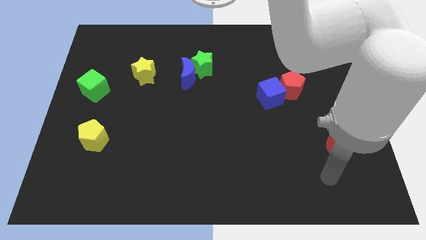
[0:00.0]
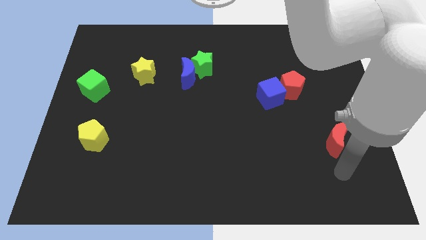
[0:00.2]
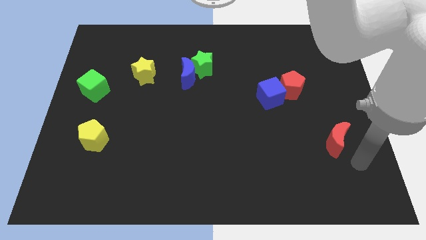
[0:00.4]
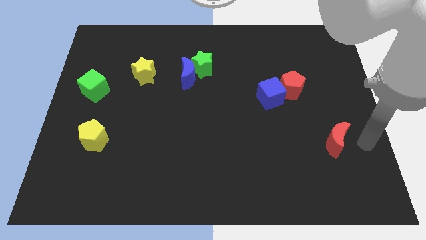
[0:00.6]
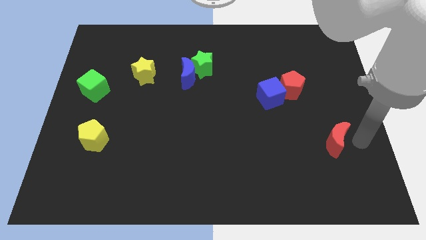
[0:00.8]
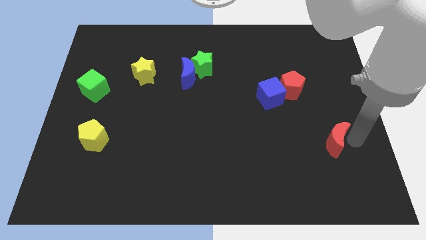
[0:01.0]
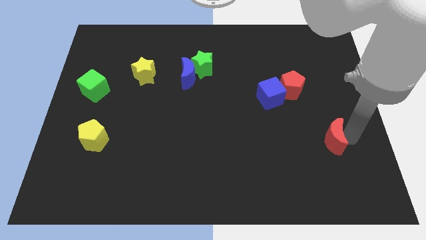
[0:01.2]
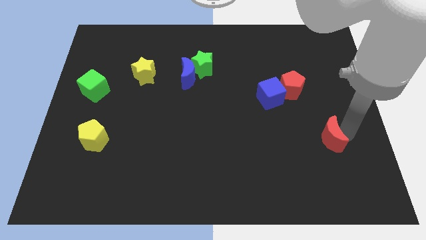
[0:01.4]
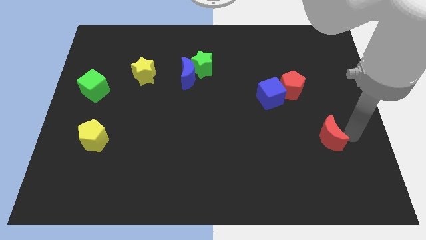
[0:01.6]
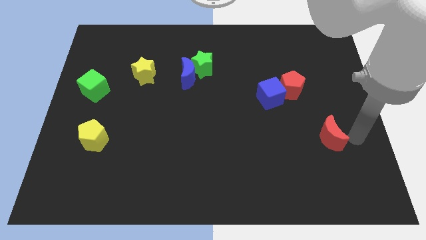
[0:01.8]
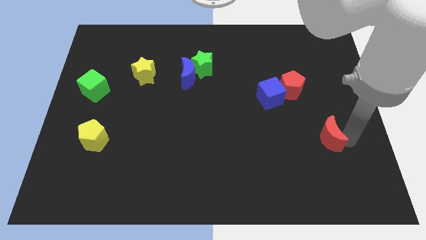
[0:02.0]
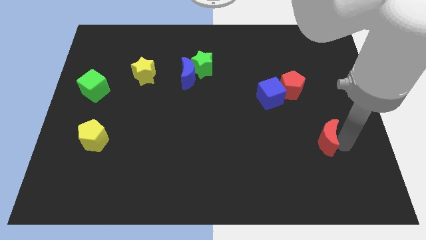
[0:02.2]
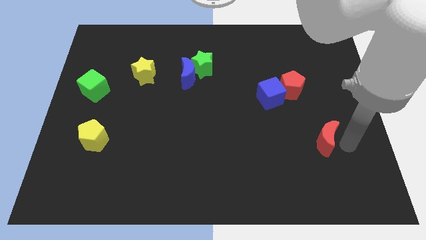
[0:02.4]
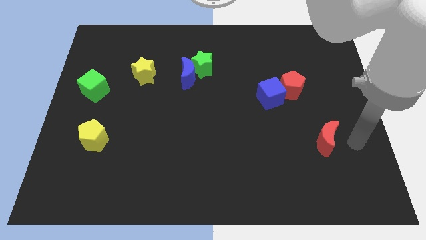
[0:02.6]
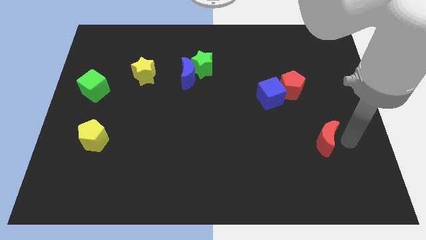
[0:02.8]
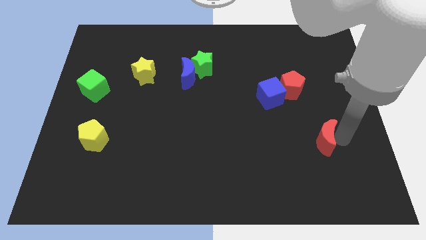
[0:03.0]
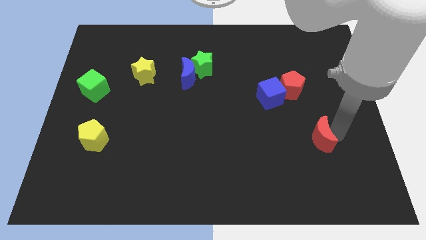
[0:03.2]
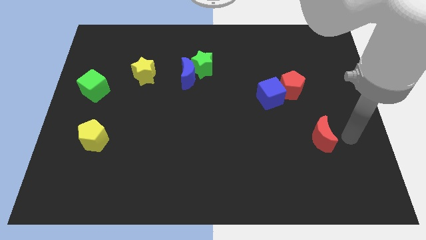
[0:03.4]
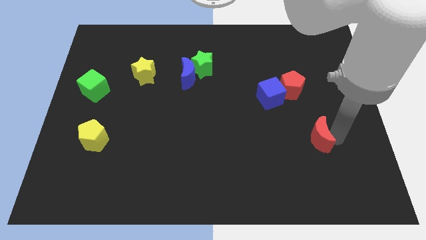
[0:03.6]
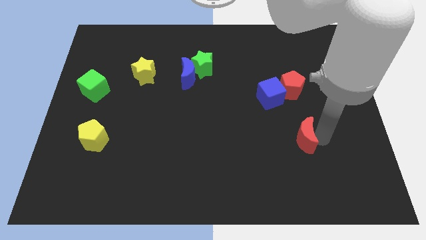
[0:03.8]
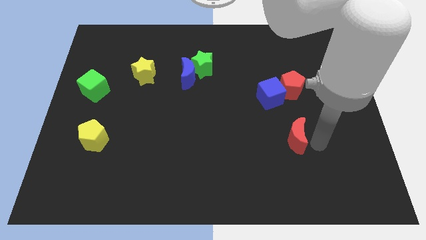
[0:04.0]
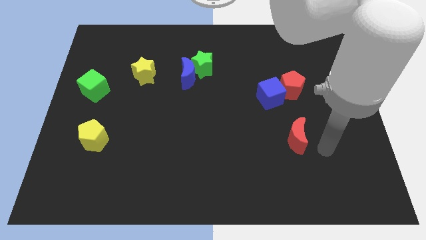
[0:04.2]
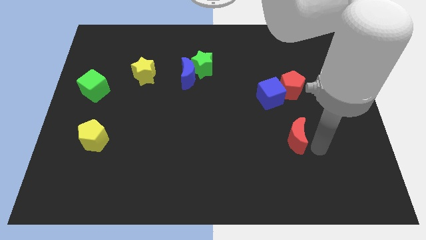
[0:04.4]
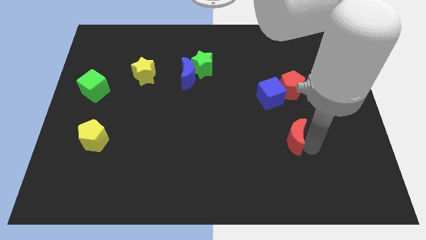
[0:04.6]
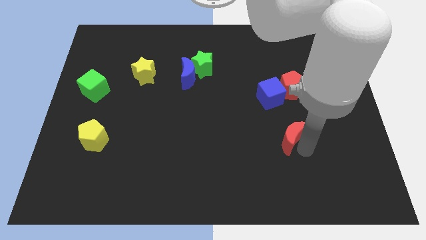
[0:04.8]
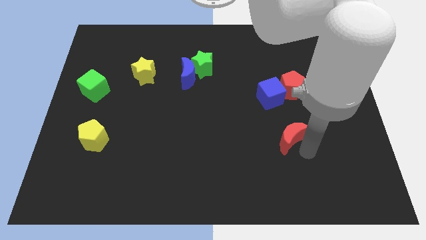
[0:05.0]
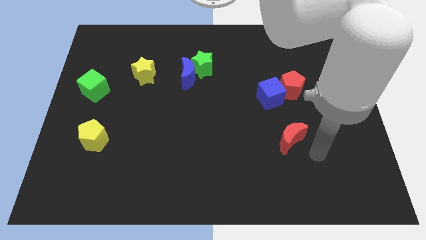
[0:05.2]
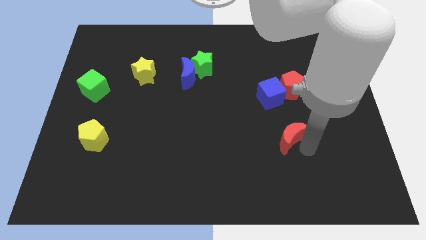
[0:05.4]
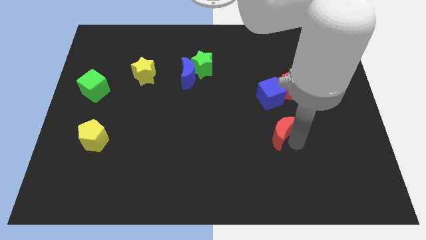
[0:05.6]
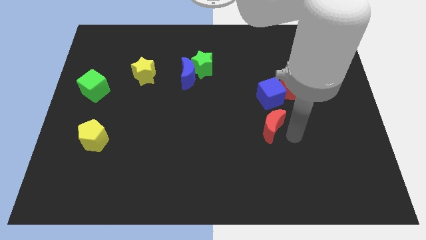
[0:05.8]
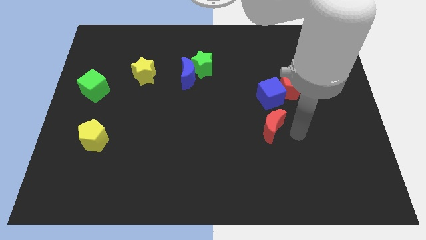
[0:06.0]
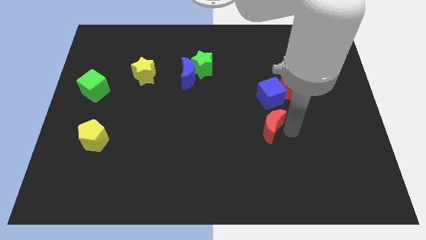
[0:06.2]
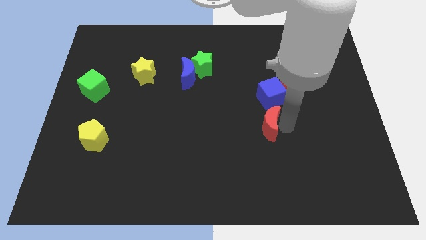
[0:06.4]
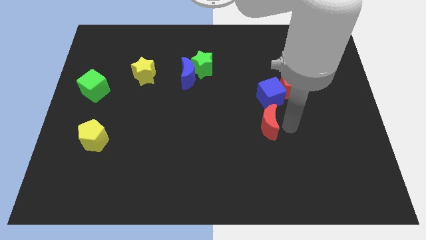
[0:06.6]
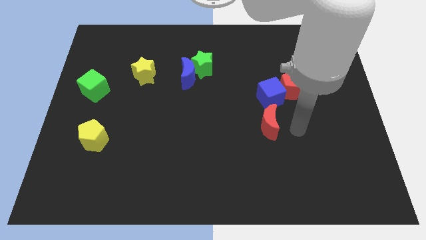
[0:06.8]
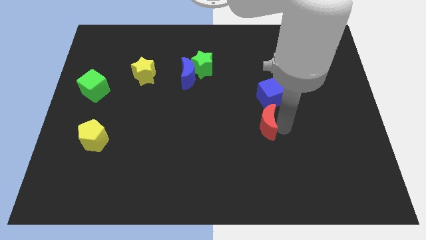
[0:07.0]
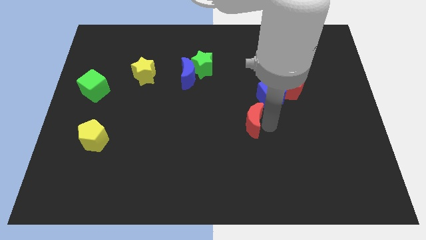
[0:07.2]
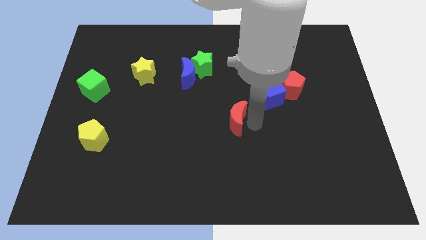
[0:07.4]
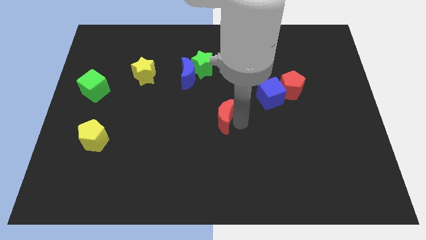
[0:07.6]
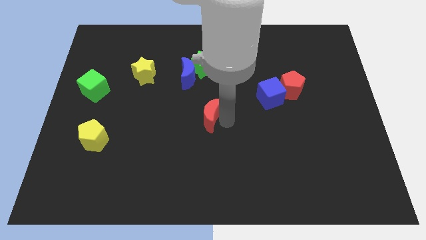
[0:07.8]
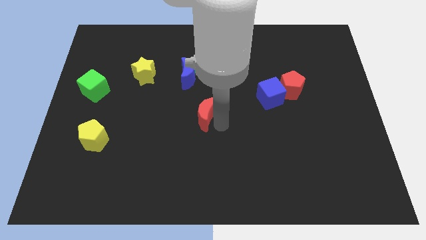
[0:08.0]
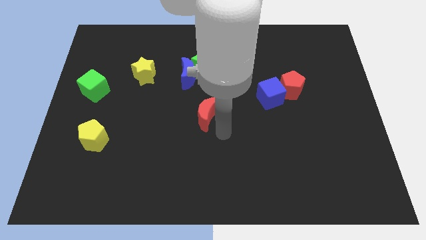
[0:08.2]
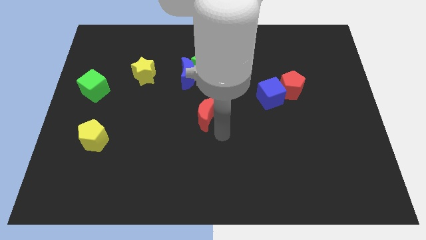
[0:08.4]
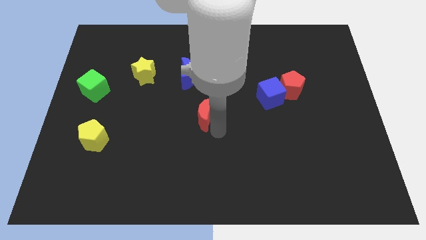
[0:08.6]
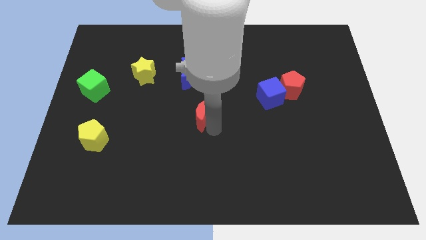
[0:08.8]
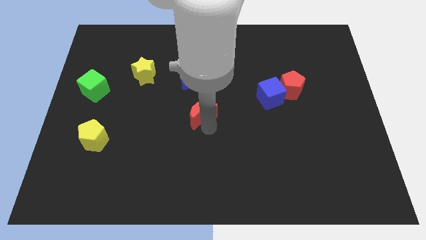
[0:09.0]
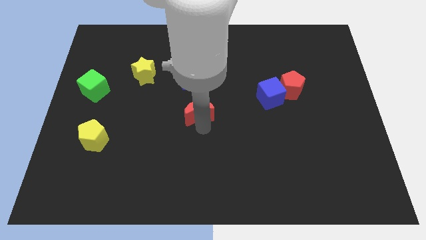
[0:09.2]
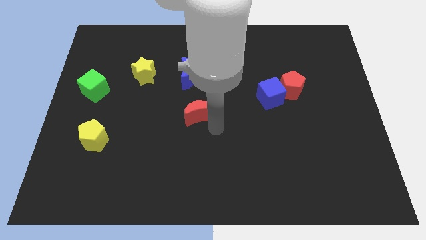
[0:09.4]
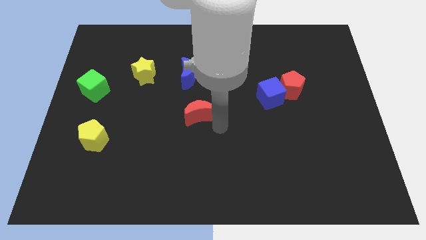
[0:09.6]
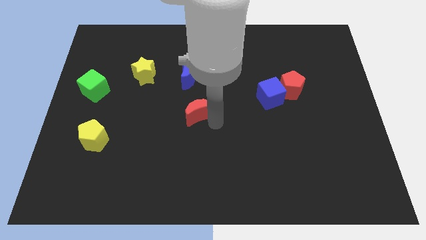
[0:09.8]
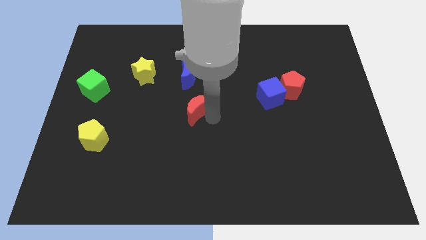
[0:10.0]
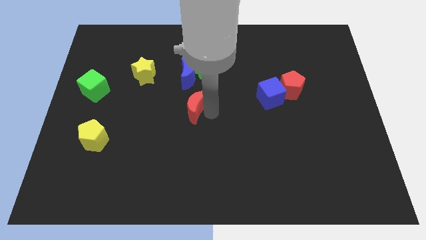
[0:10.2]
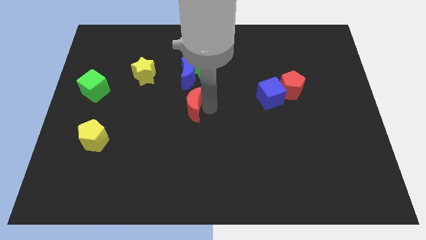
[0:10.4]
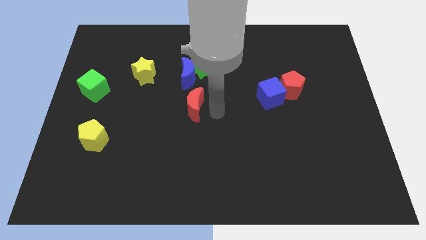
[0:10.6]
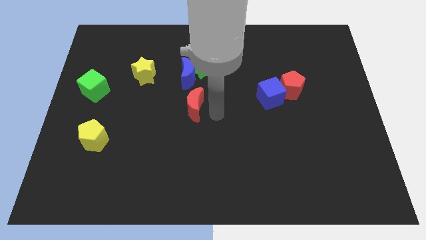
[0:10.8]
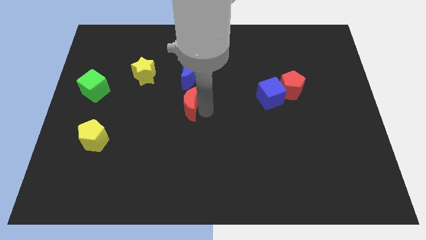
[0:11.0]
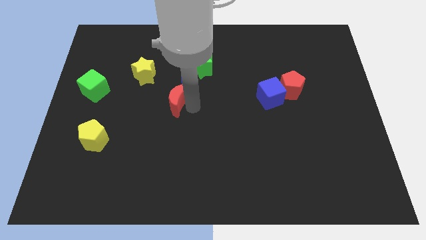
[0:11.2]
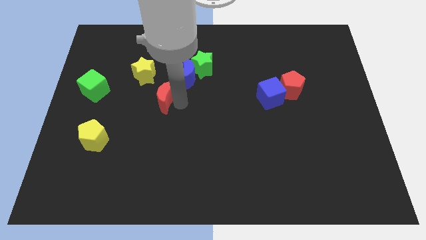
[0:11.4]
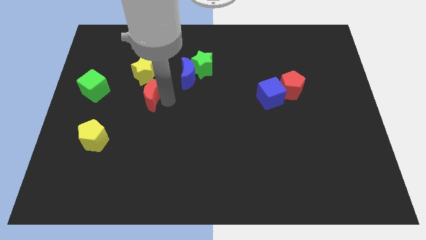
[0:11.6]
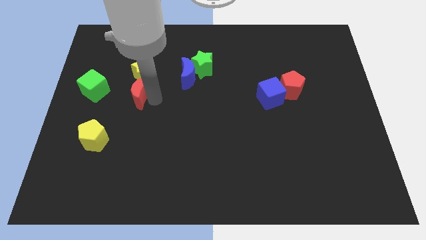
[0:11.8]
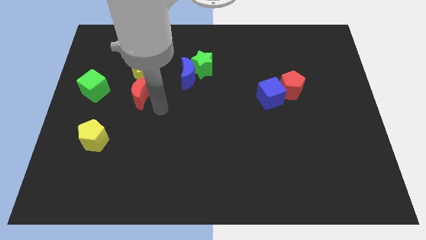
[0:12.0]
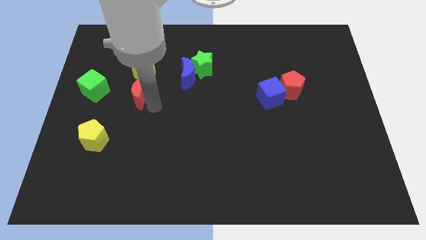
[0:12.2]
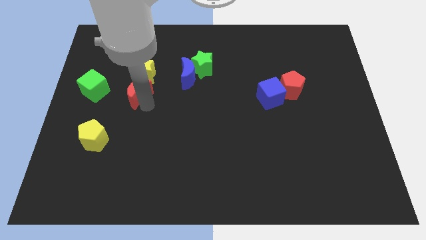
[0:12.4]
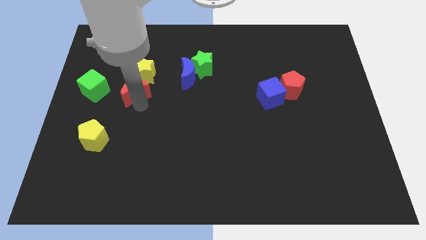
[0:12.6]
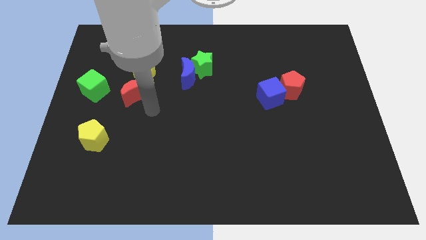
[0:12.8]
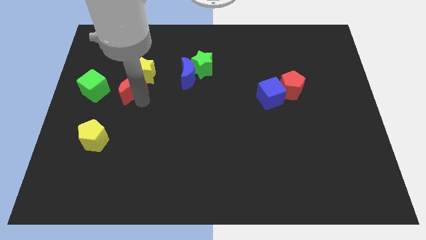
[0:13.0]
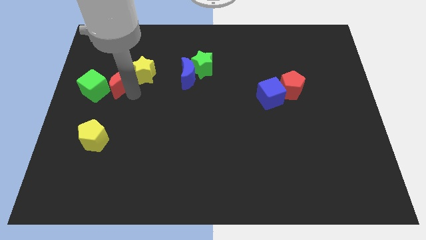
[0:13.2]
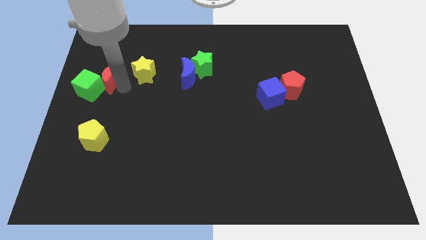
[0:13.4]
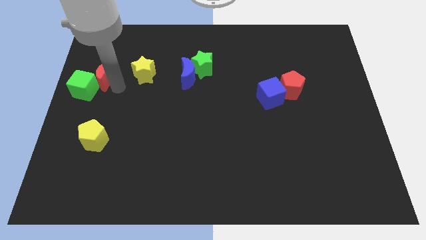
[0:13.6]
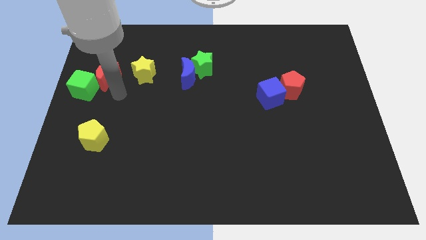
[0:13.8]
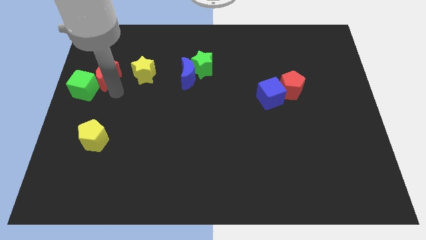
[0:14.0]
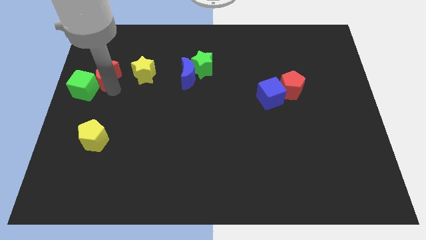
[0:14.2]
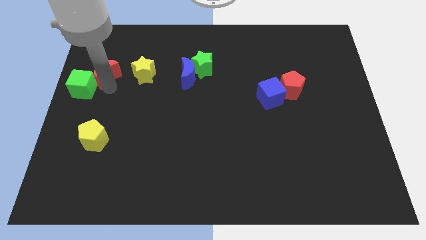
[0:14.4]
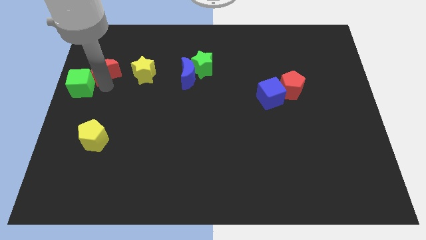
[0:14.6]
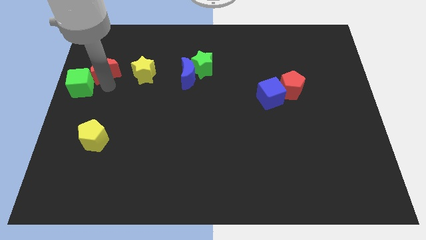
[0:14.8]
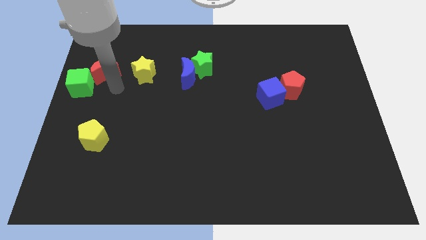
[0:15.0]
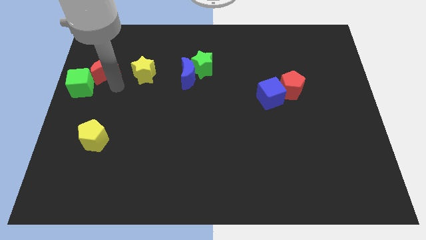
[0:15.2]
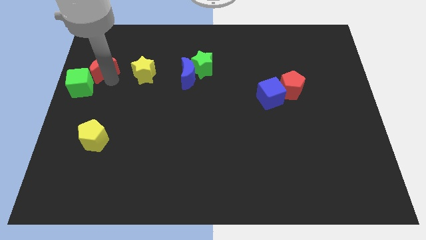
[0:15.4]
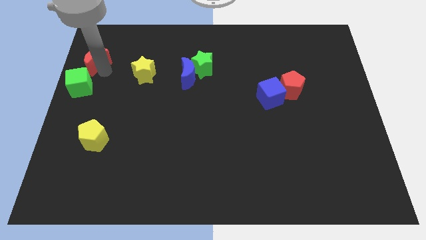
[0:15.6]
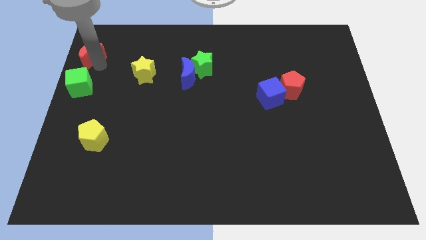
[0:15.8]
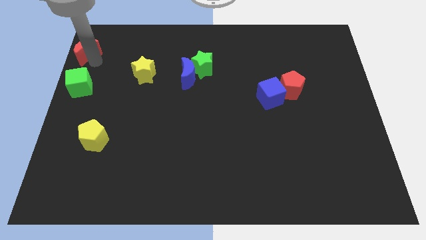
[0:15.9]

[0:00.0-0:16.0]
slide the red moon to the upper left corner
